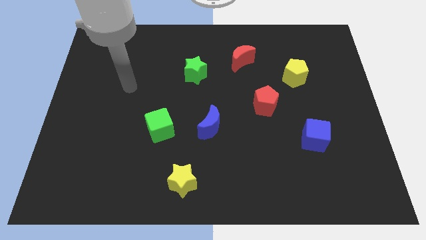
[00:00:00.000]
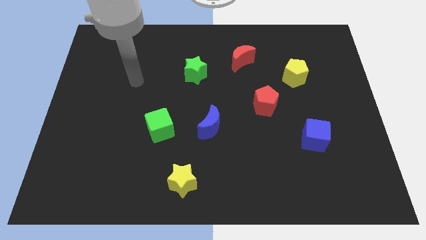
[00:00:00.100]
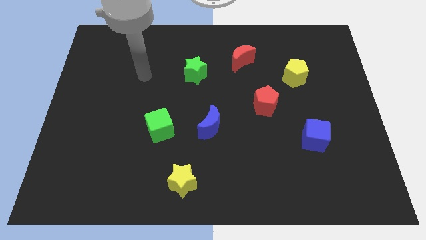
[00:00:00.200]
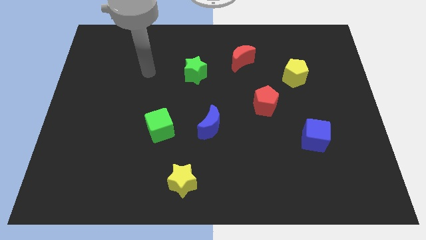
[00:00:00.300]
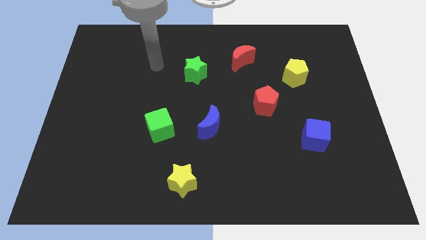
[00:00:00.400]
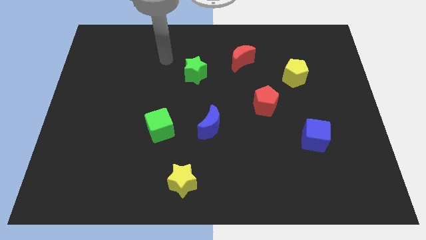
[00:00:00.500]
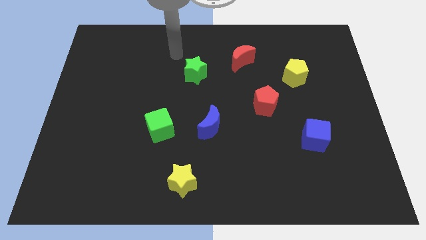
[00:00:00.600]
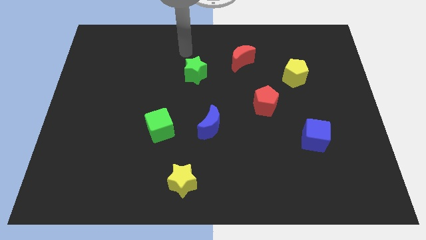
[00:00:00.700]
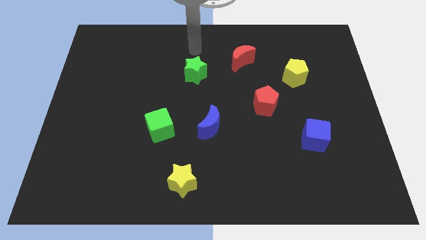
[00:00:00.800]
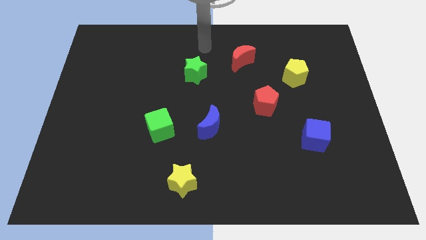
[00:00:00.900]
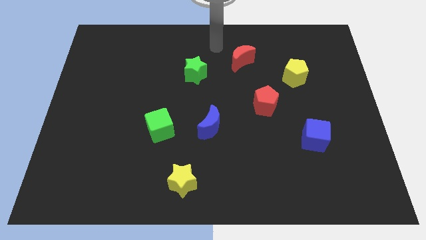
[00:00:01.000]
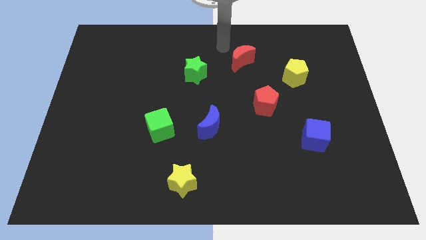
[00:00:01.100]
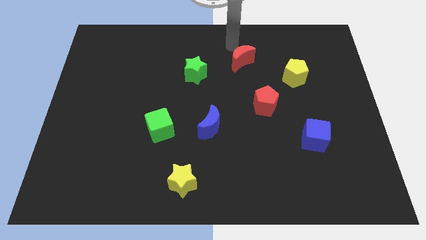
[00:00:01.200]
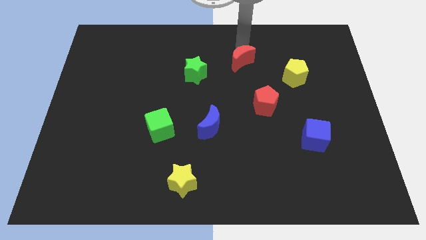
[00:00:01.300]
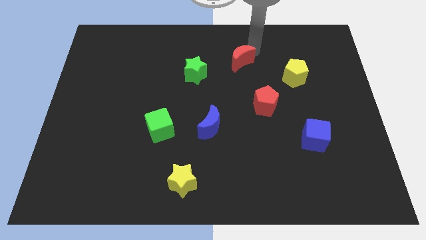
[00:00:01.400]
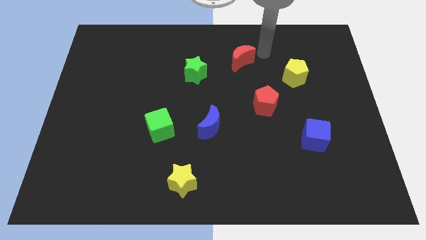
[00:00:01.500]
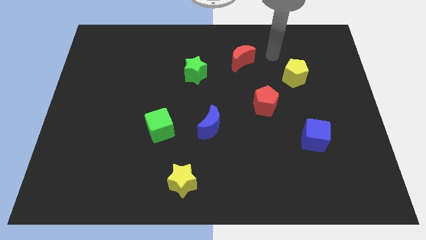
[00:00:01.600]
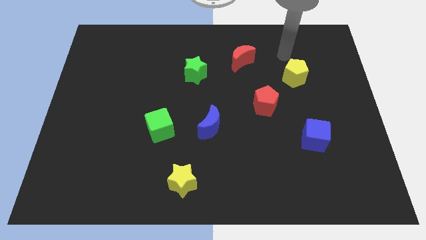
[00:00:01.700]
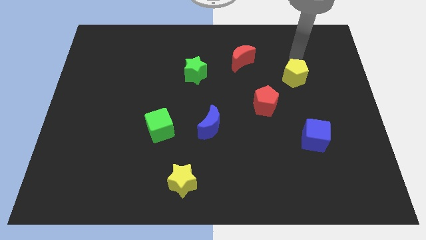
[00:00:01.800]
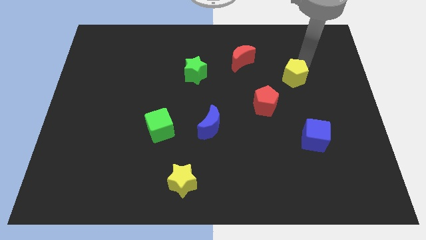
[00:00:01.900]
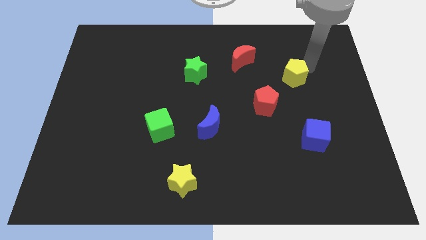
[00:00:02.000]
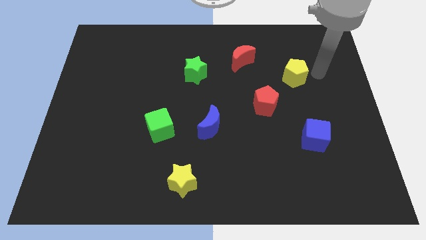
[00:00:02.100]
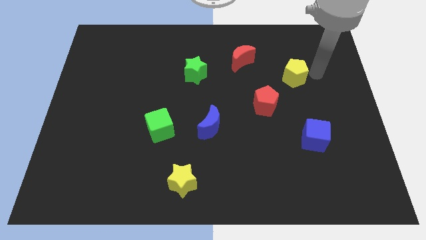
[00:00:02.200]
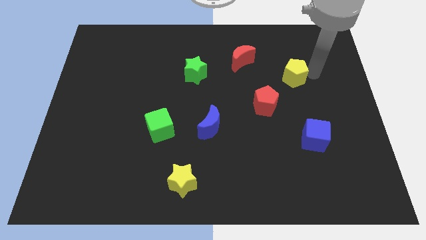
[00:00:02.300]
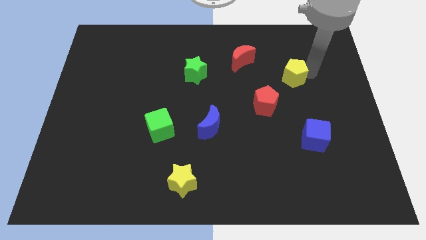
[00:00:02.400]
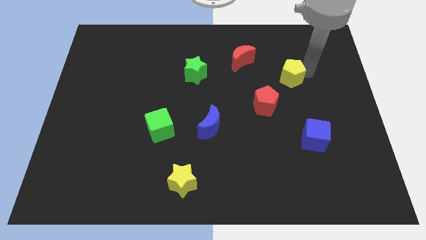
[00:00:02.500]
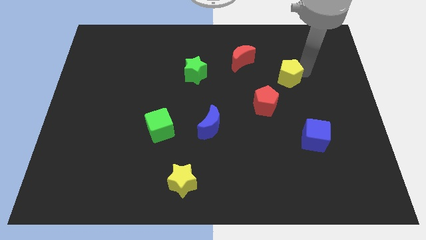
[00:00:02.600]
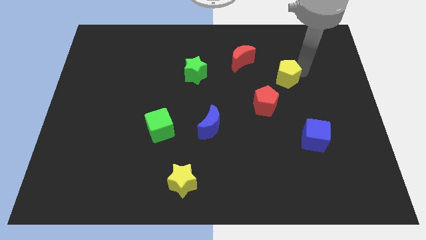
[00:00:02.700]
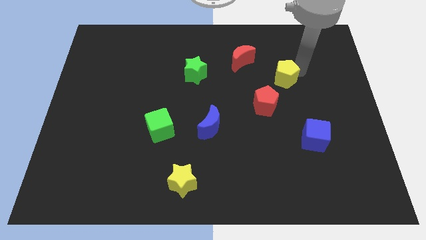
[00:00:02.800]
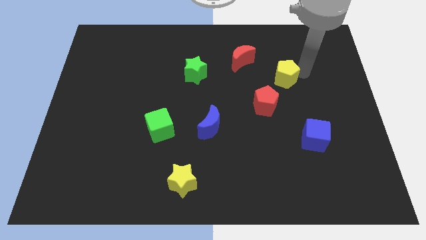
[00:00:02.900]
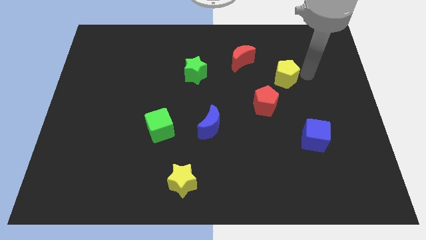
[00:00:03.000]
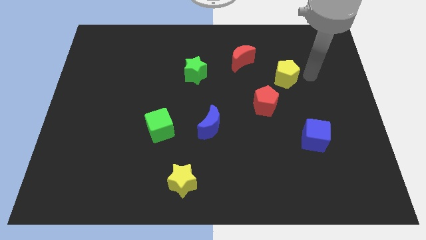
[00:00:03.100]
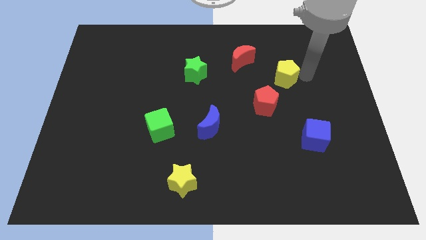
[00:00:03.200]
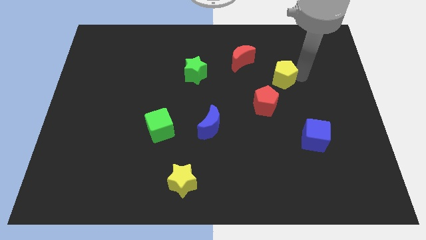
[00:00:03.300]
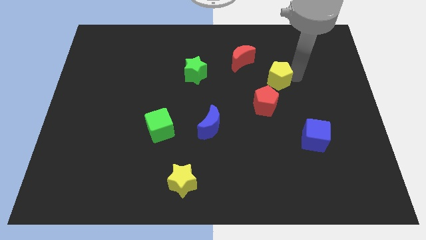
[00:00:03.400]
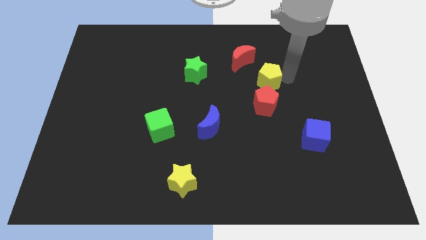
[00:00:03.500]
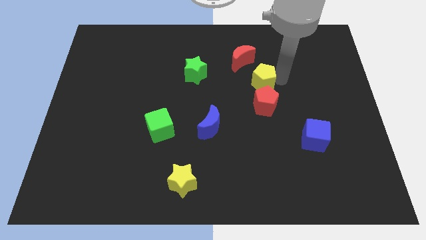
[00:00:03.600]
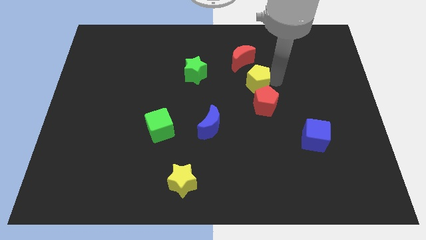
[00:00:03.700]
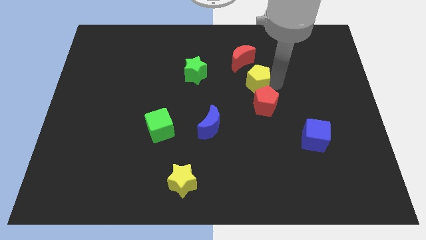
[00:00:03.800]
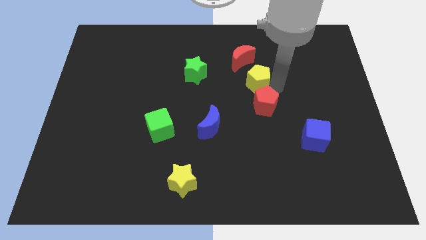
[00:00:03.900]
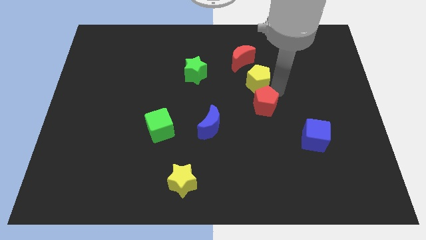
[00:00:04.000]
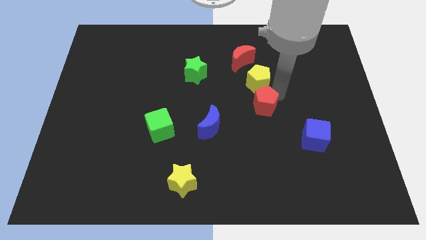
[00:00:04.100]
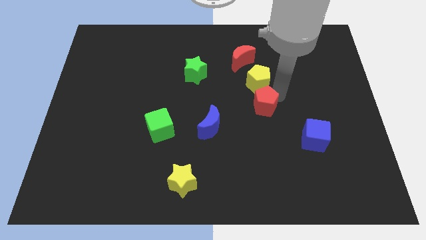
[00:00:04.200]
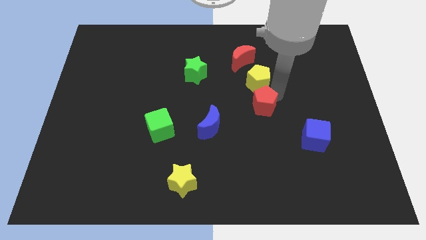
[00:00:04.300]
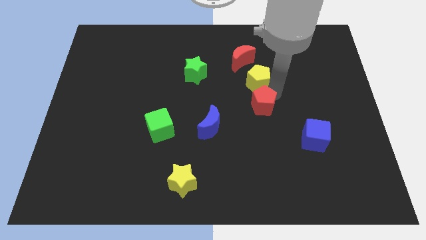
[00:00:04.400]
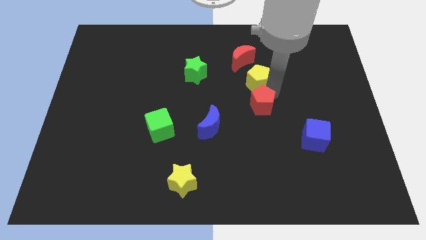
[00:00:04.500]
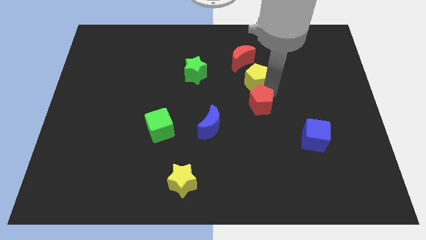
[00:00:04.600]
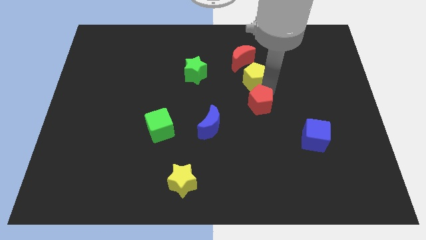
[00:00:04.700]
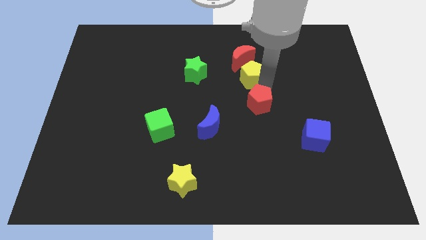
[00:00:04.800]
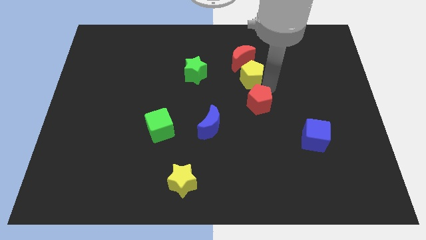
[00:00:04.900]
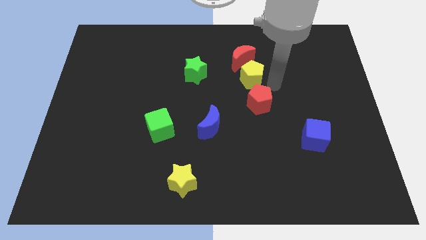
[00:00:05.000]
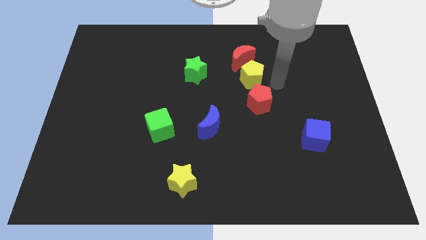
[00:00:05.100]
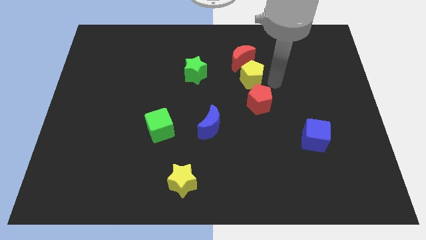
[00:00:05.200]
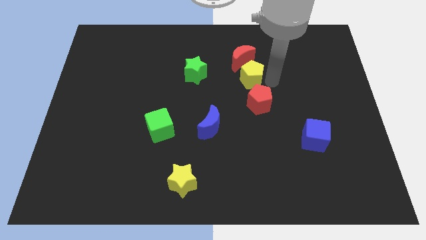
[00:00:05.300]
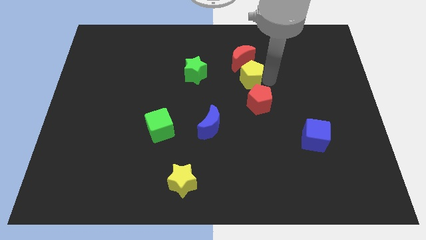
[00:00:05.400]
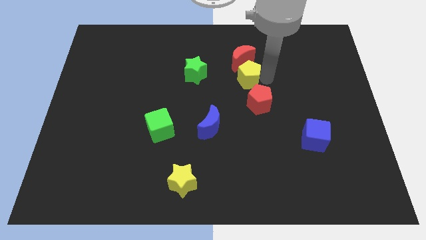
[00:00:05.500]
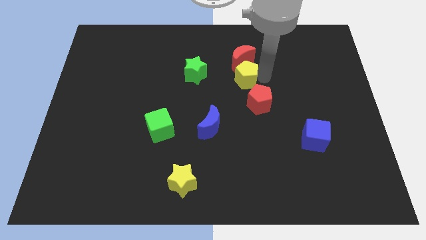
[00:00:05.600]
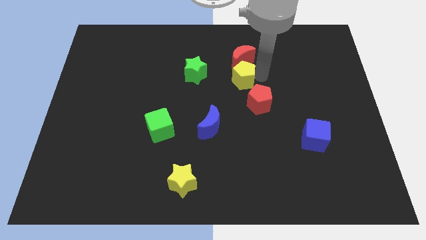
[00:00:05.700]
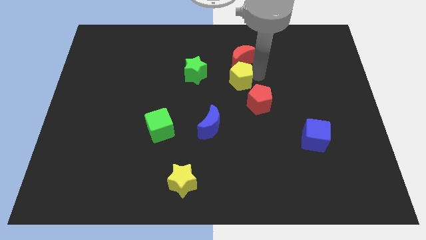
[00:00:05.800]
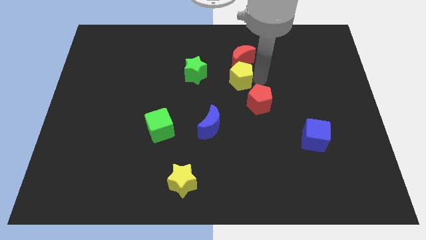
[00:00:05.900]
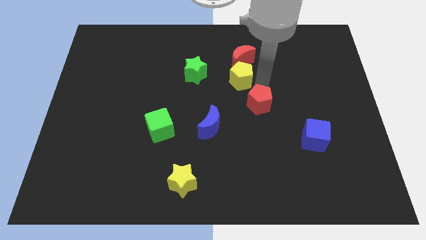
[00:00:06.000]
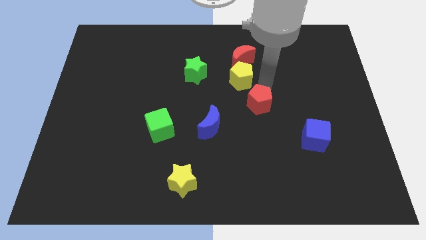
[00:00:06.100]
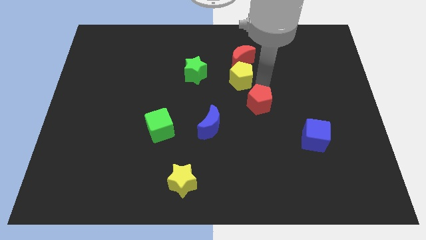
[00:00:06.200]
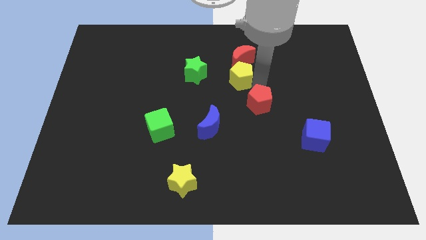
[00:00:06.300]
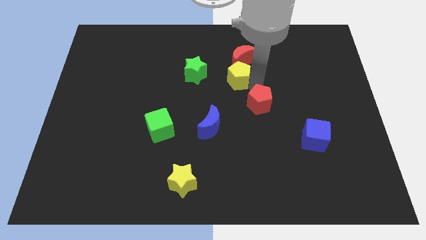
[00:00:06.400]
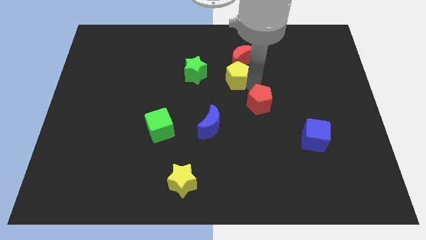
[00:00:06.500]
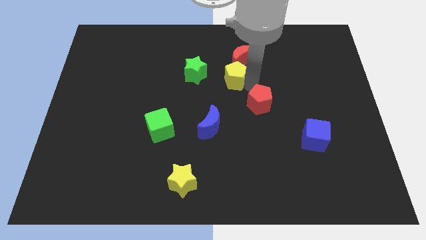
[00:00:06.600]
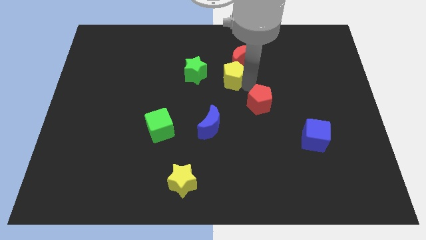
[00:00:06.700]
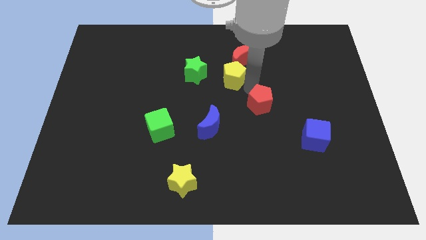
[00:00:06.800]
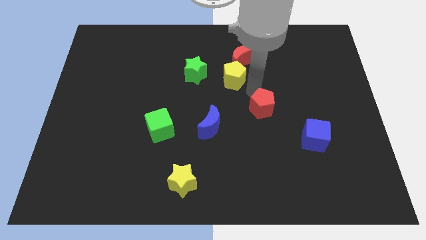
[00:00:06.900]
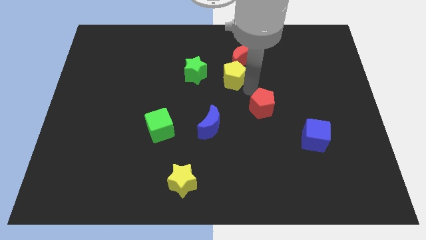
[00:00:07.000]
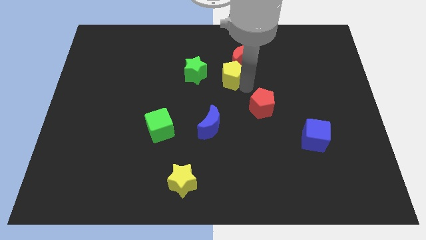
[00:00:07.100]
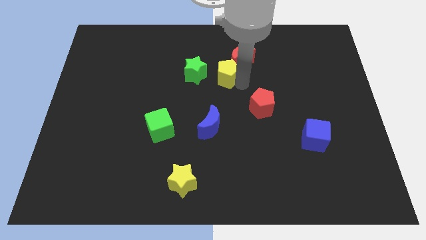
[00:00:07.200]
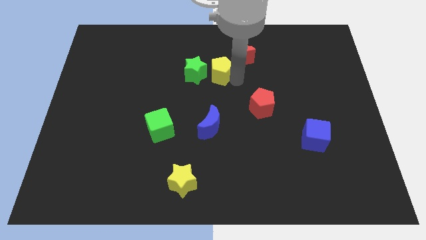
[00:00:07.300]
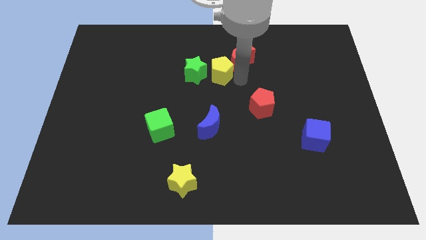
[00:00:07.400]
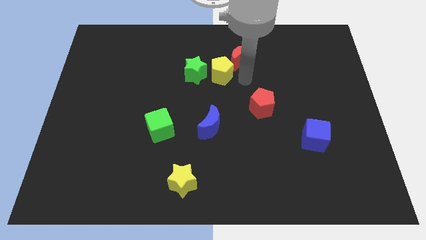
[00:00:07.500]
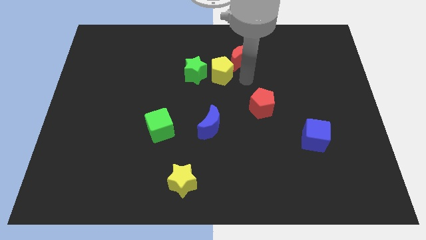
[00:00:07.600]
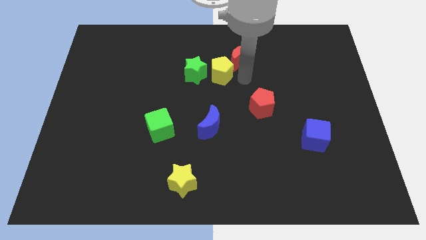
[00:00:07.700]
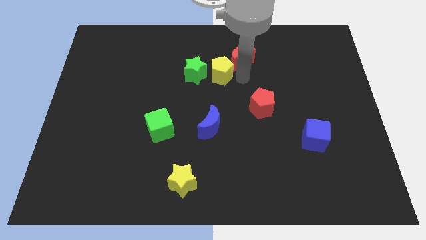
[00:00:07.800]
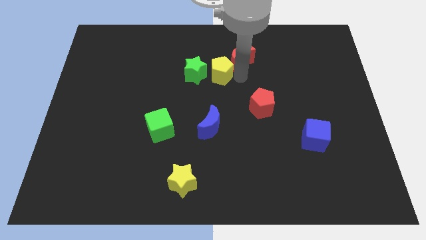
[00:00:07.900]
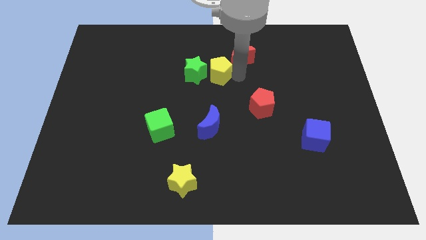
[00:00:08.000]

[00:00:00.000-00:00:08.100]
put the yellow pentagon close to the green star
